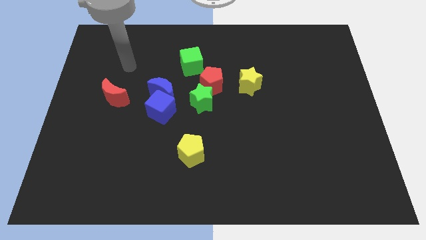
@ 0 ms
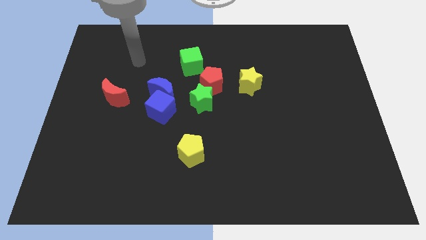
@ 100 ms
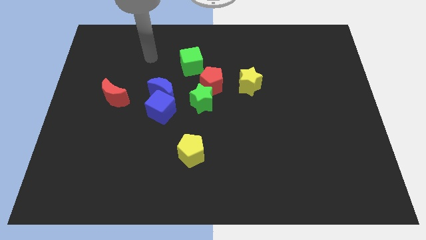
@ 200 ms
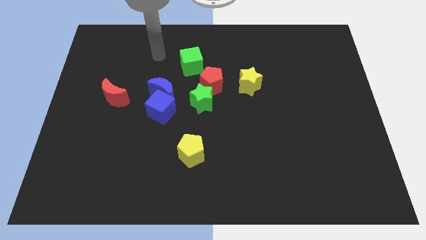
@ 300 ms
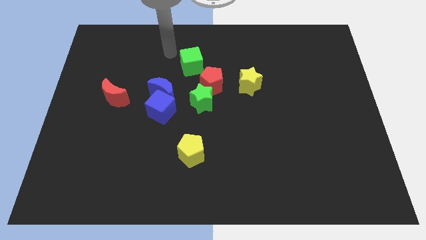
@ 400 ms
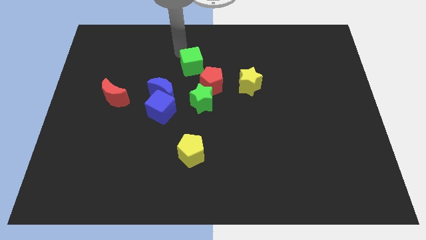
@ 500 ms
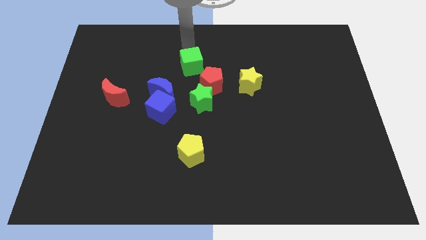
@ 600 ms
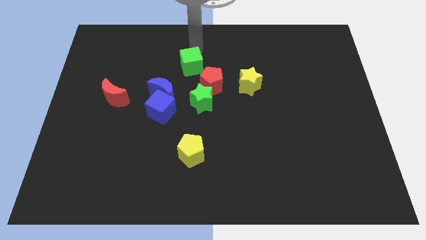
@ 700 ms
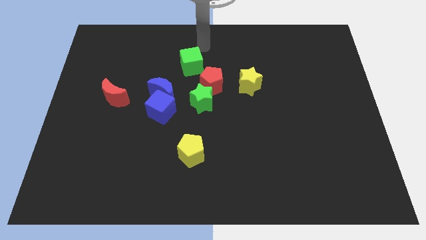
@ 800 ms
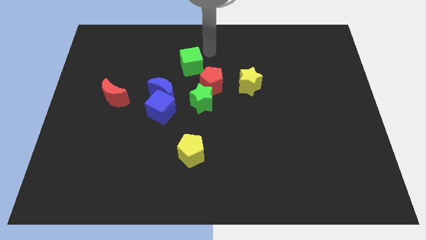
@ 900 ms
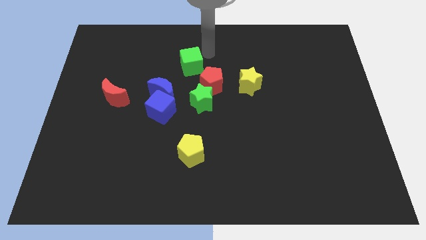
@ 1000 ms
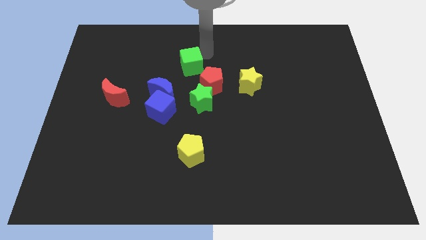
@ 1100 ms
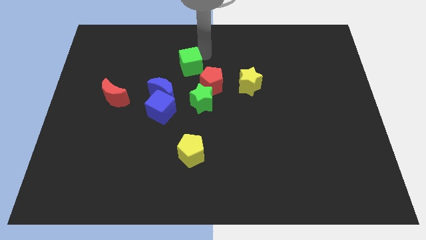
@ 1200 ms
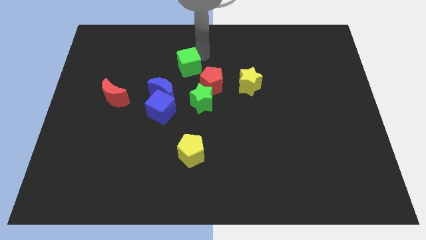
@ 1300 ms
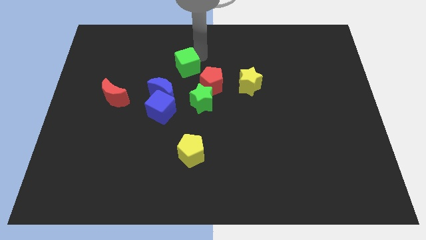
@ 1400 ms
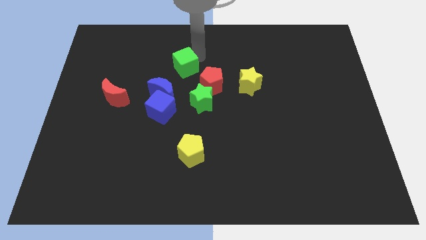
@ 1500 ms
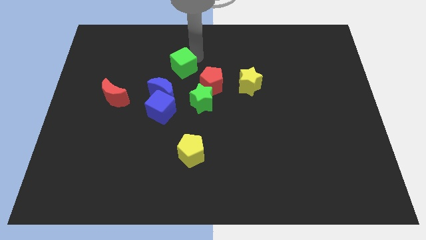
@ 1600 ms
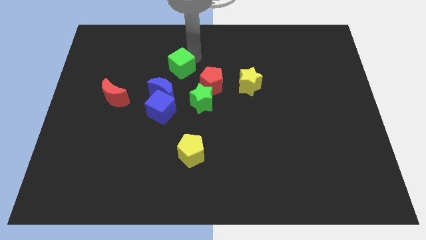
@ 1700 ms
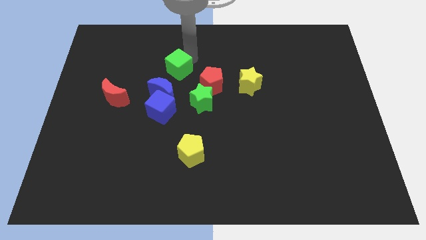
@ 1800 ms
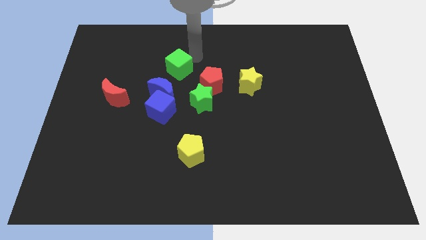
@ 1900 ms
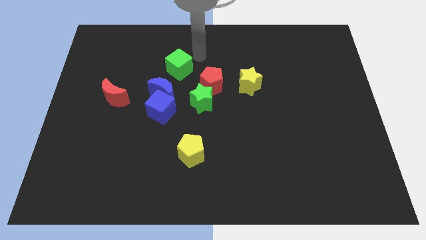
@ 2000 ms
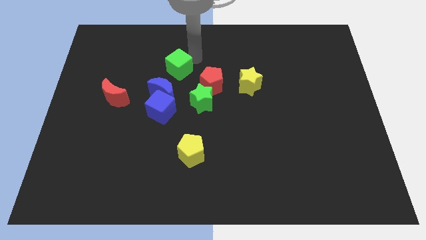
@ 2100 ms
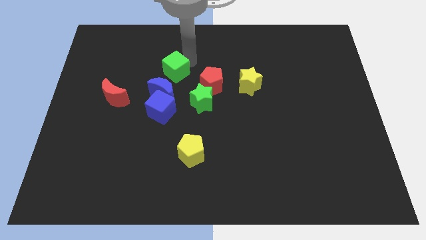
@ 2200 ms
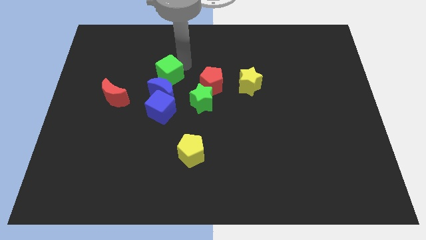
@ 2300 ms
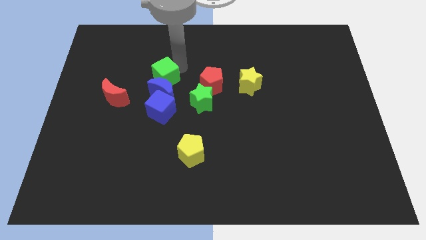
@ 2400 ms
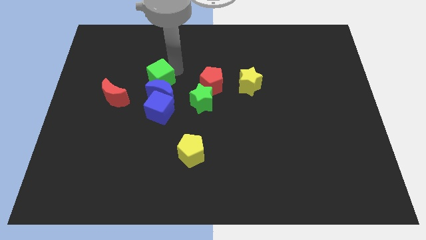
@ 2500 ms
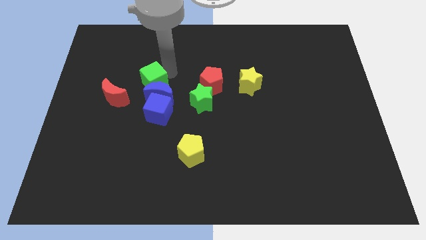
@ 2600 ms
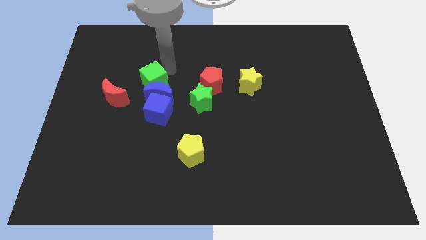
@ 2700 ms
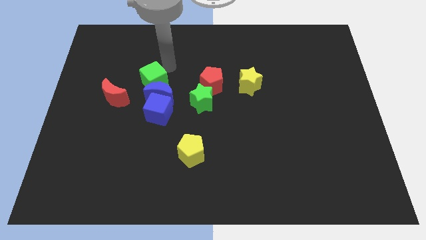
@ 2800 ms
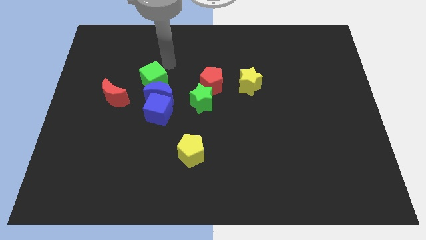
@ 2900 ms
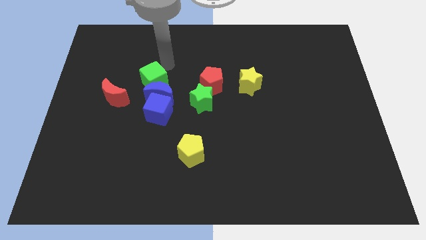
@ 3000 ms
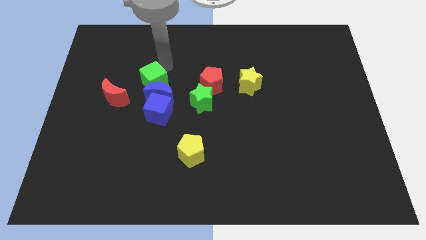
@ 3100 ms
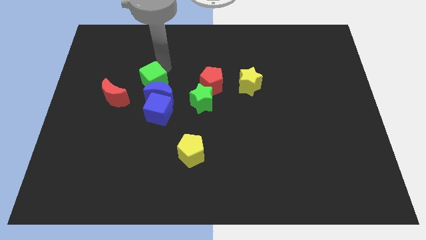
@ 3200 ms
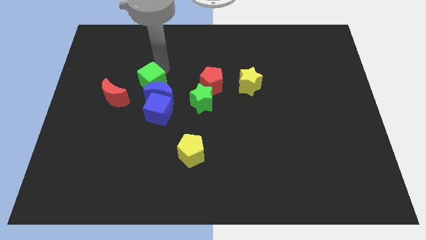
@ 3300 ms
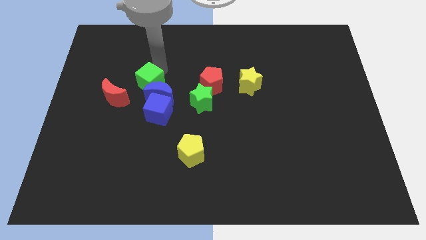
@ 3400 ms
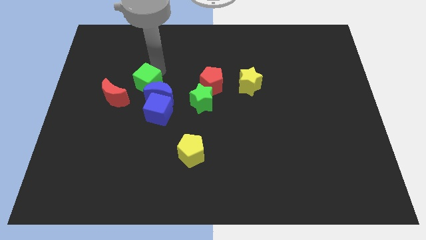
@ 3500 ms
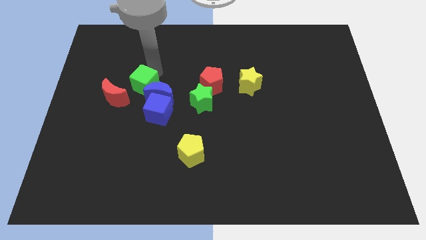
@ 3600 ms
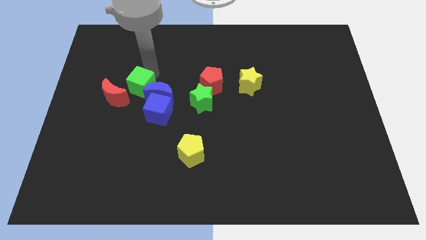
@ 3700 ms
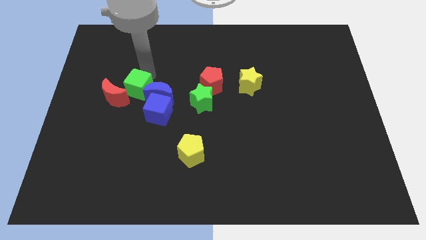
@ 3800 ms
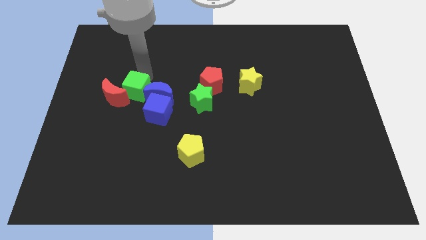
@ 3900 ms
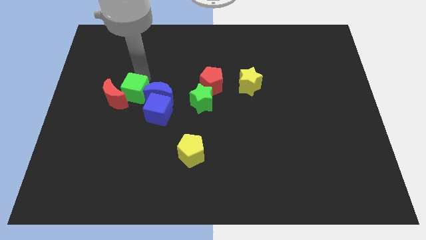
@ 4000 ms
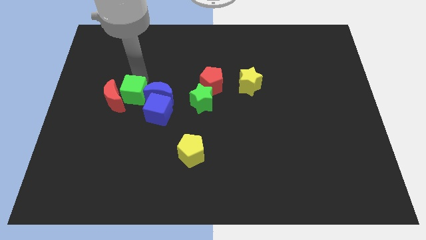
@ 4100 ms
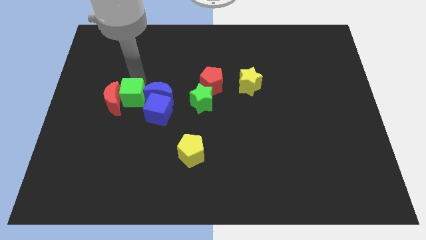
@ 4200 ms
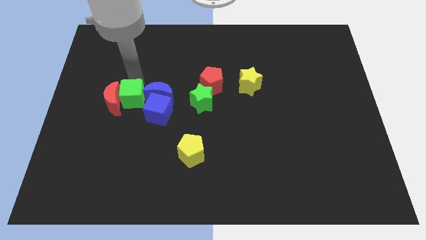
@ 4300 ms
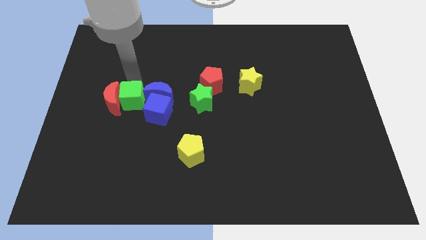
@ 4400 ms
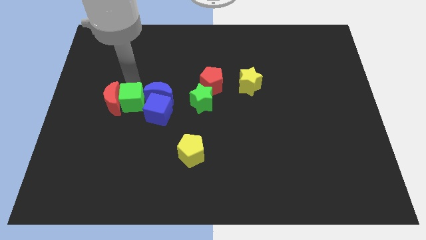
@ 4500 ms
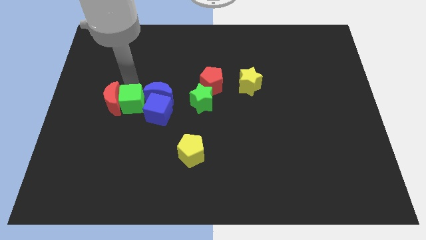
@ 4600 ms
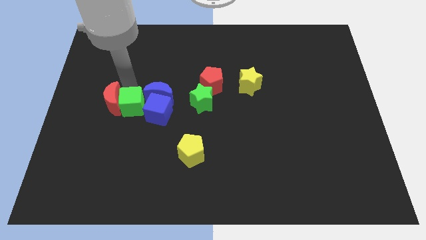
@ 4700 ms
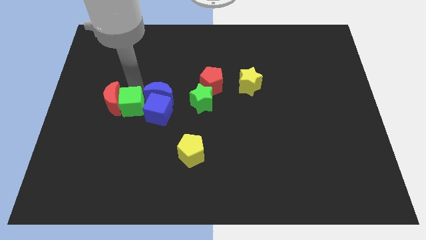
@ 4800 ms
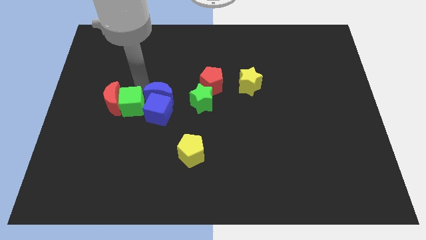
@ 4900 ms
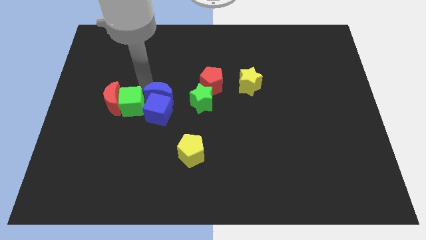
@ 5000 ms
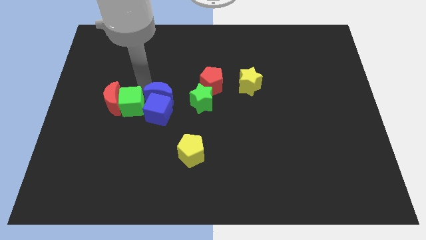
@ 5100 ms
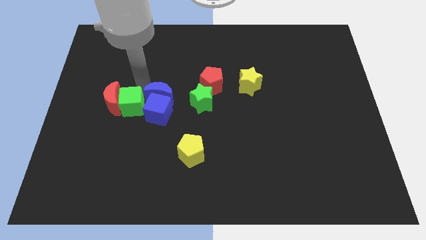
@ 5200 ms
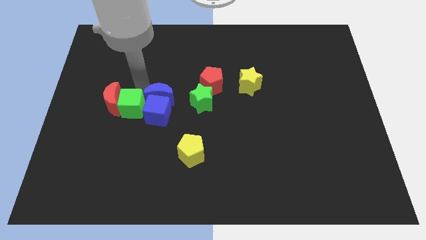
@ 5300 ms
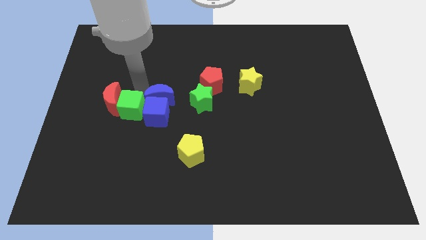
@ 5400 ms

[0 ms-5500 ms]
push the green cube down and then left

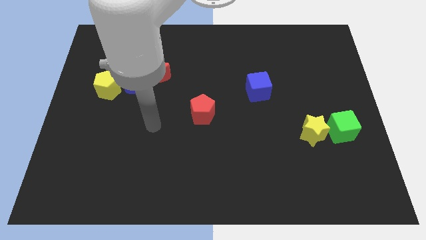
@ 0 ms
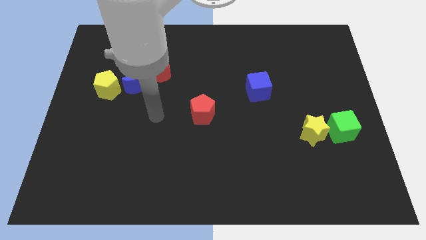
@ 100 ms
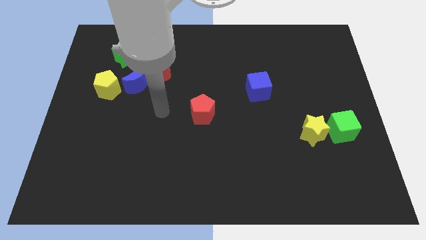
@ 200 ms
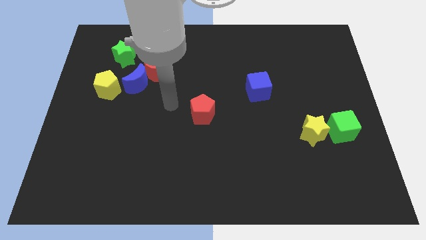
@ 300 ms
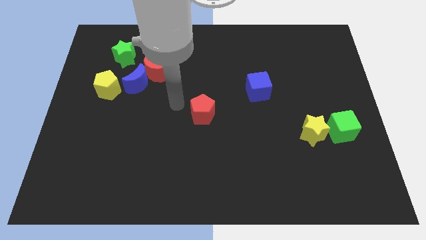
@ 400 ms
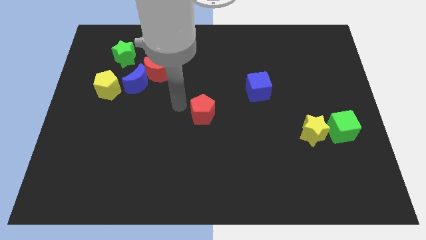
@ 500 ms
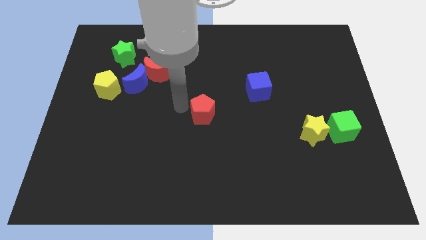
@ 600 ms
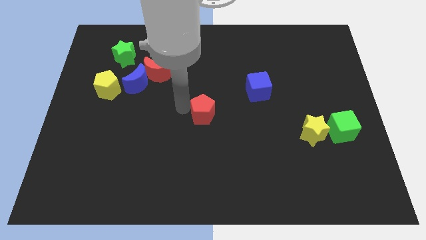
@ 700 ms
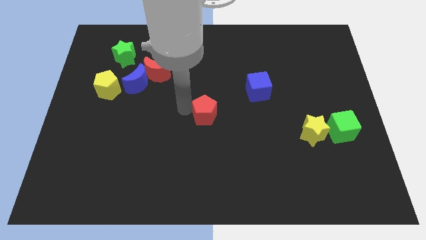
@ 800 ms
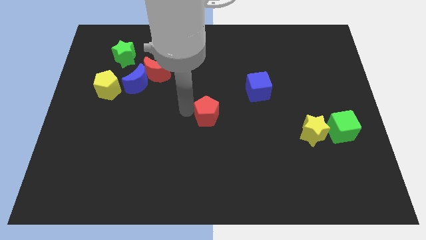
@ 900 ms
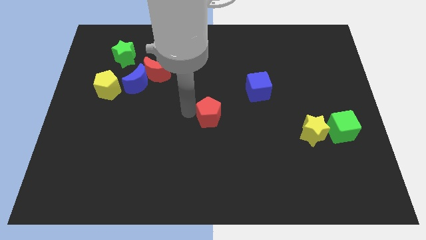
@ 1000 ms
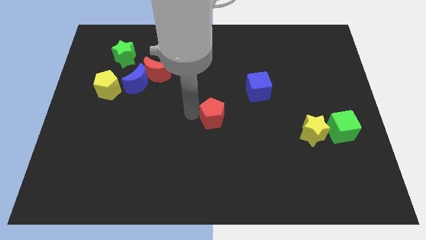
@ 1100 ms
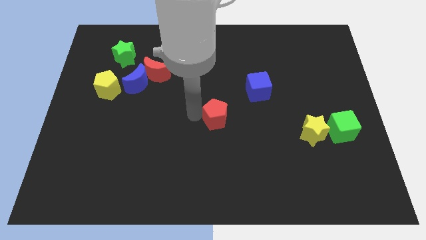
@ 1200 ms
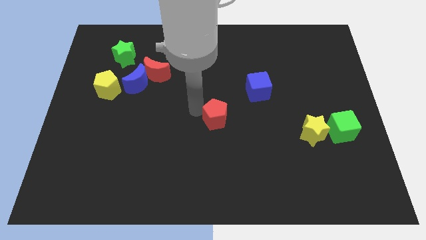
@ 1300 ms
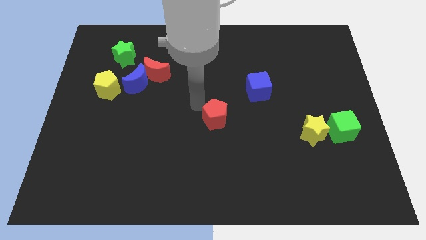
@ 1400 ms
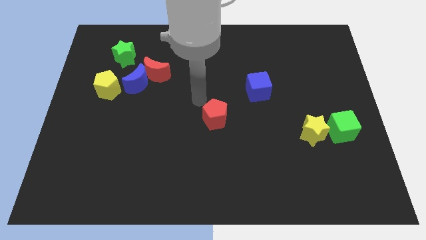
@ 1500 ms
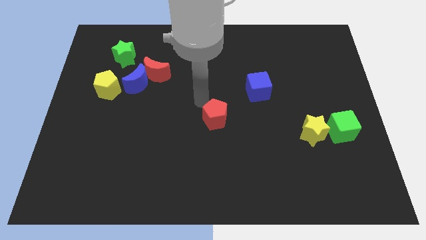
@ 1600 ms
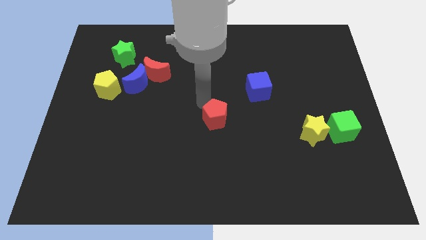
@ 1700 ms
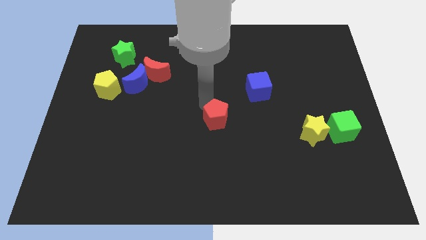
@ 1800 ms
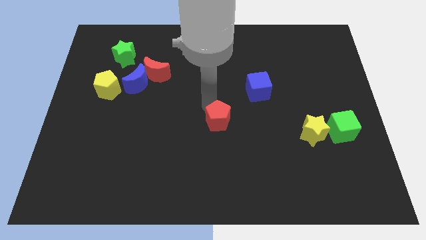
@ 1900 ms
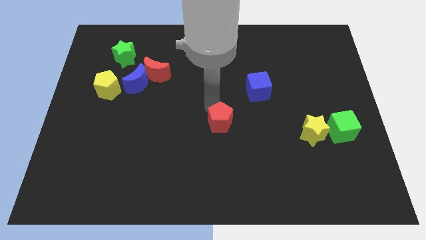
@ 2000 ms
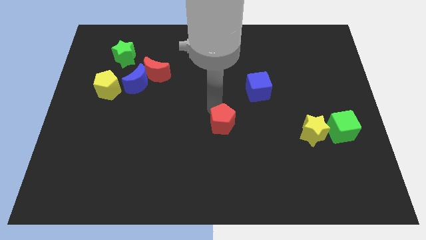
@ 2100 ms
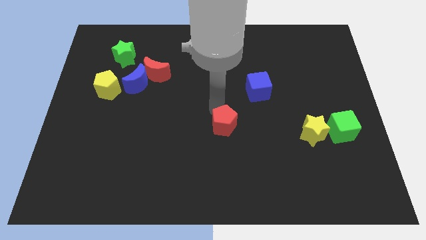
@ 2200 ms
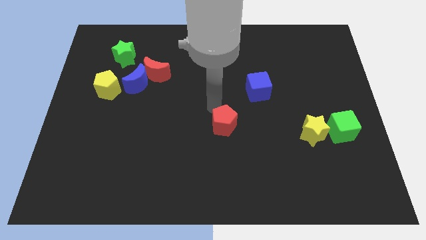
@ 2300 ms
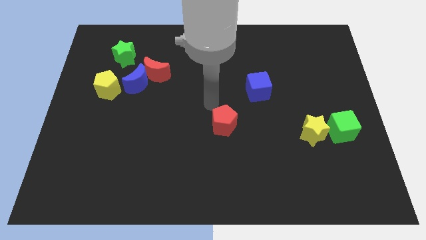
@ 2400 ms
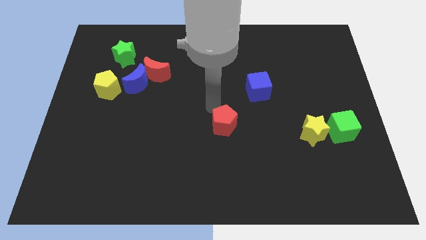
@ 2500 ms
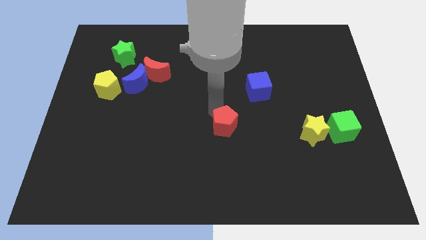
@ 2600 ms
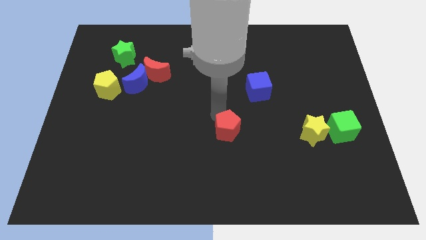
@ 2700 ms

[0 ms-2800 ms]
move the red pentagon diagonally down and to the right a little bit
